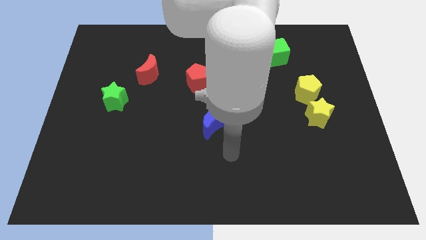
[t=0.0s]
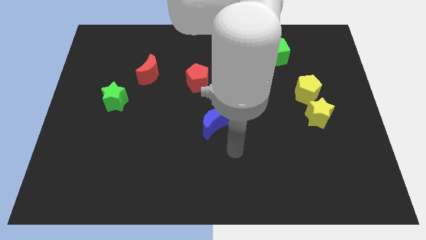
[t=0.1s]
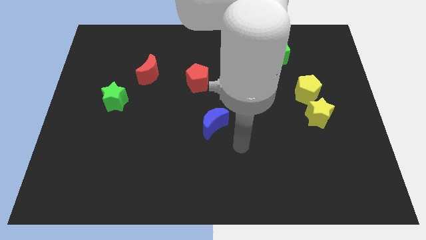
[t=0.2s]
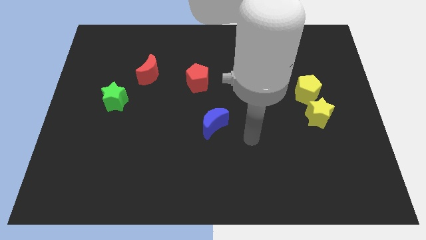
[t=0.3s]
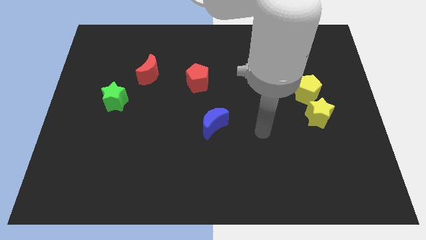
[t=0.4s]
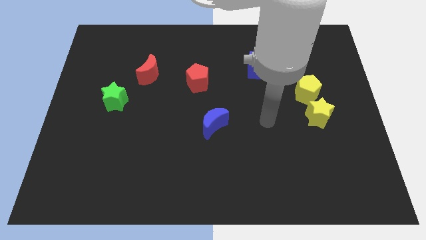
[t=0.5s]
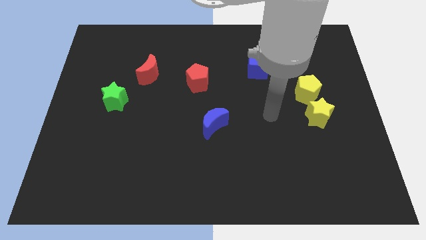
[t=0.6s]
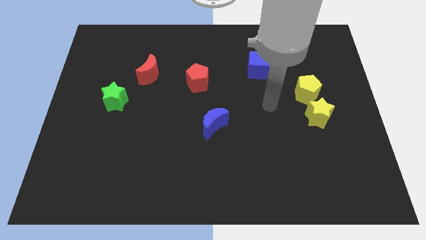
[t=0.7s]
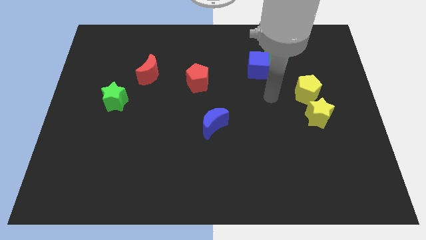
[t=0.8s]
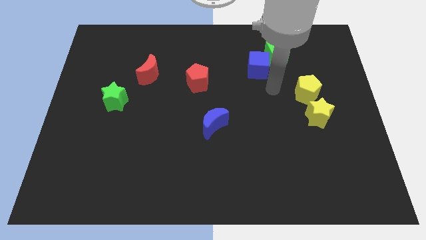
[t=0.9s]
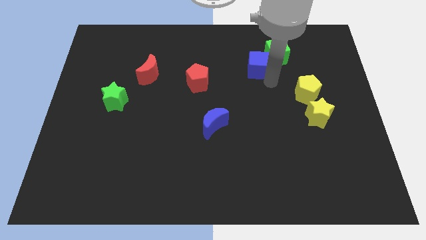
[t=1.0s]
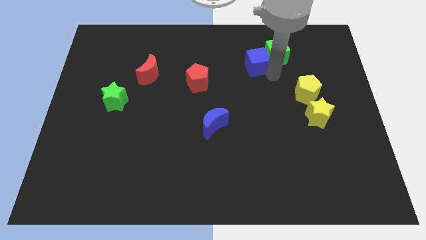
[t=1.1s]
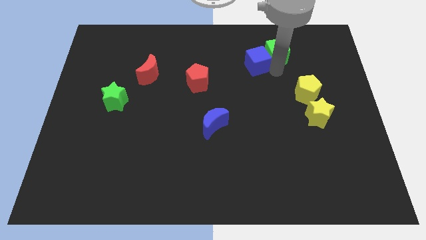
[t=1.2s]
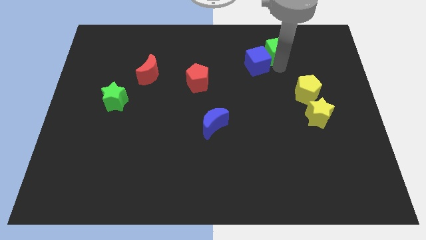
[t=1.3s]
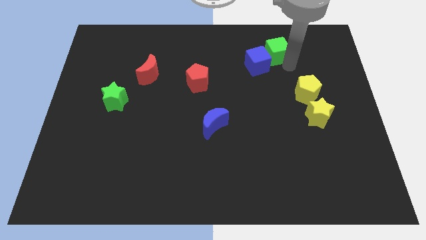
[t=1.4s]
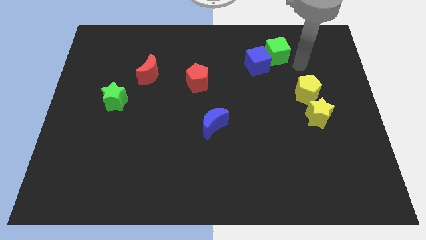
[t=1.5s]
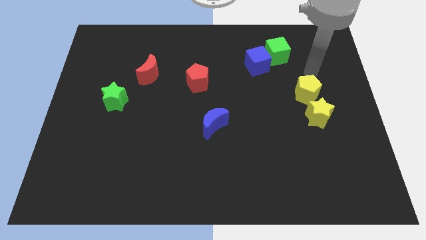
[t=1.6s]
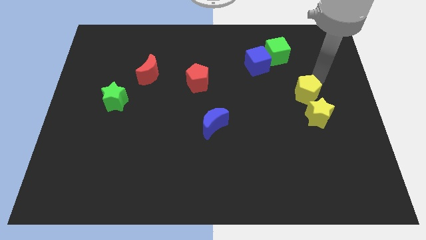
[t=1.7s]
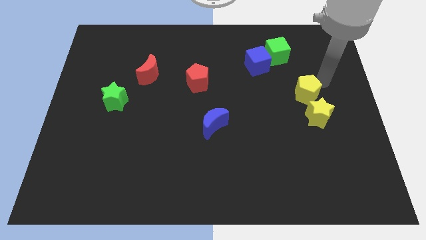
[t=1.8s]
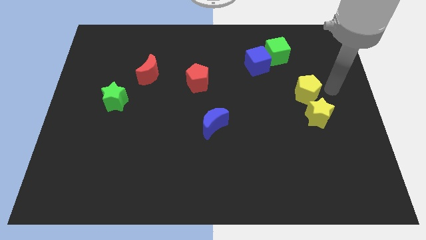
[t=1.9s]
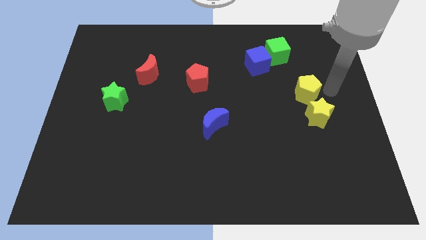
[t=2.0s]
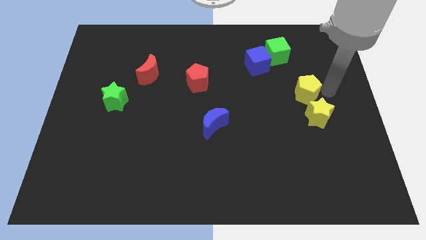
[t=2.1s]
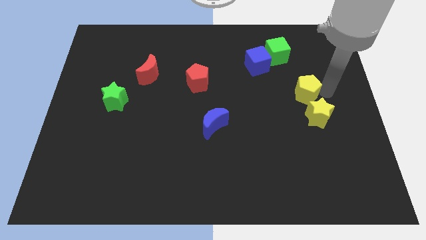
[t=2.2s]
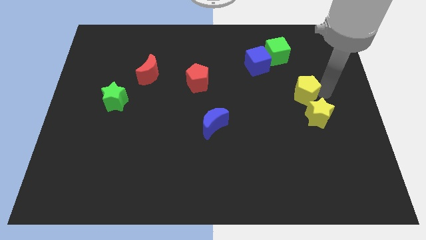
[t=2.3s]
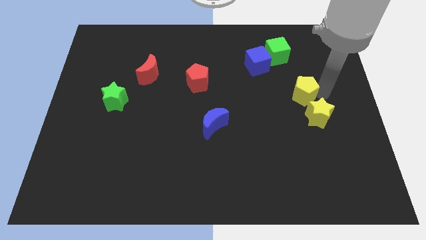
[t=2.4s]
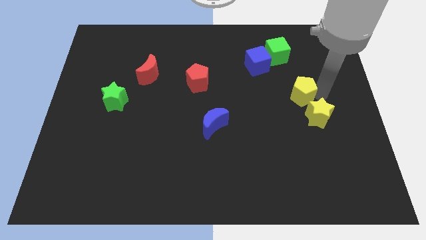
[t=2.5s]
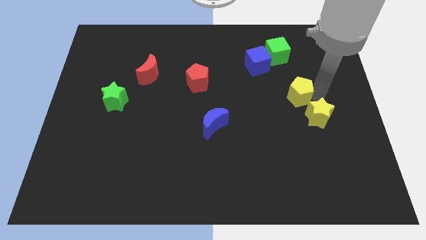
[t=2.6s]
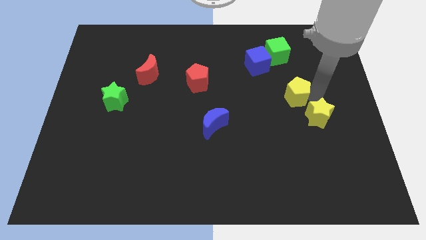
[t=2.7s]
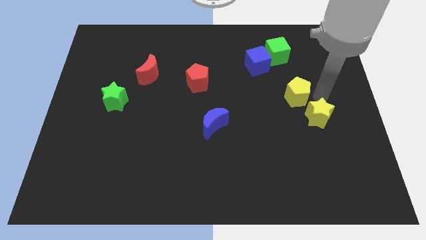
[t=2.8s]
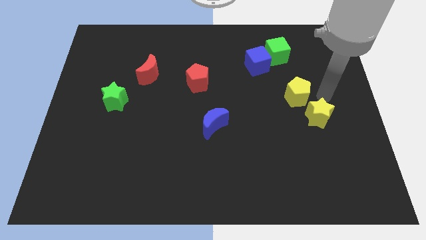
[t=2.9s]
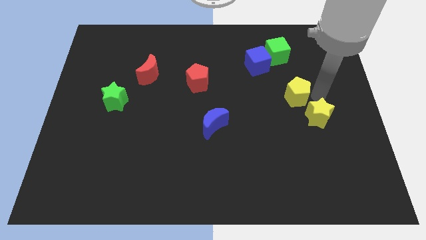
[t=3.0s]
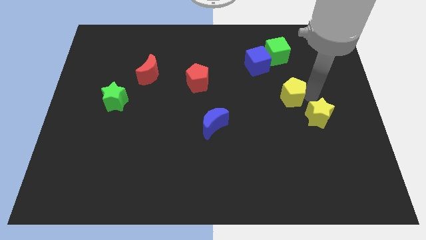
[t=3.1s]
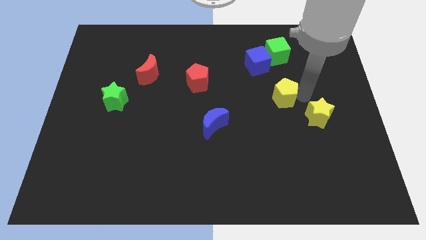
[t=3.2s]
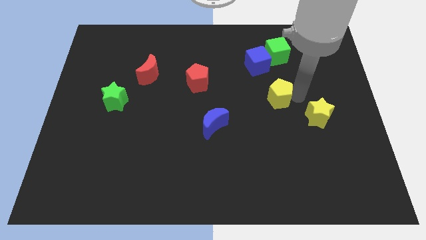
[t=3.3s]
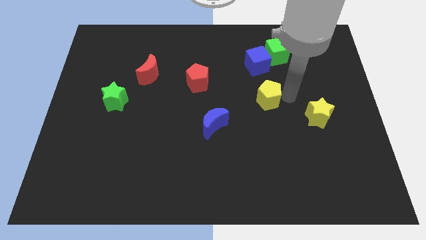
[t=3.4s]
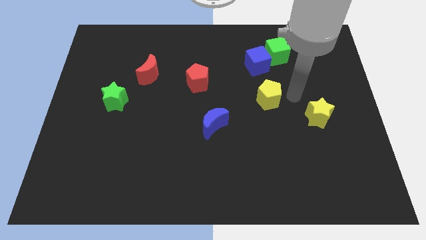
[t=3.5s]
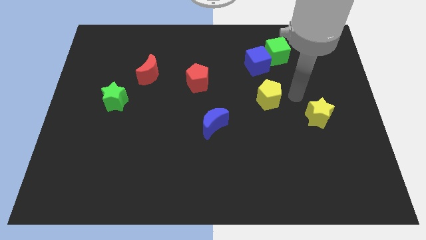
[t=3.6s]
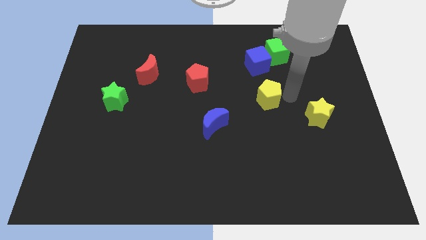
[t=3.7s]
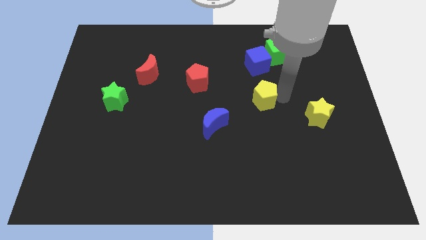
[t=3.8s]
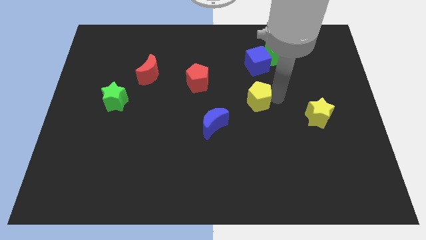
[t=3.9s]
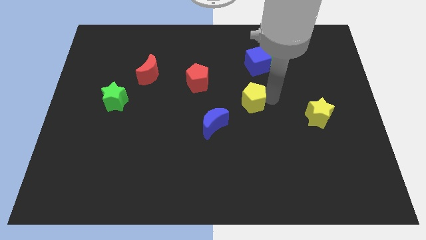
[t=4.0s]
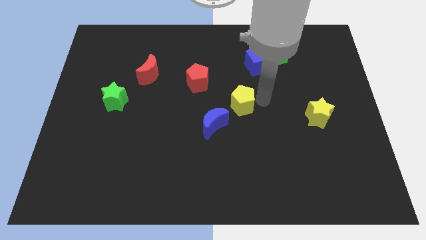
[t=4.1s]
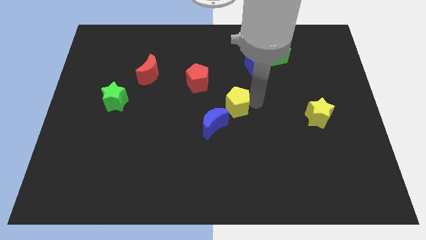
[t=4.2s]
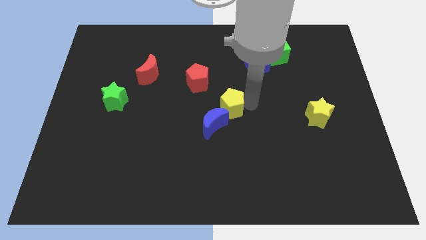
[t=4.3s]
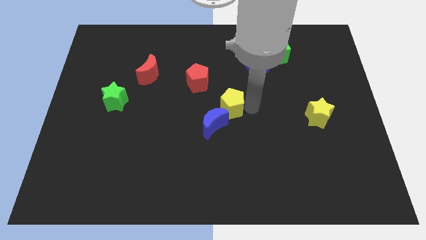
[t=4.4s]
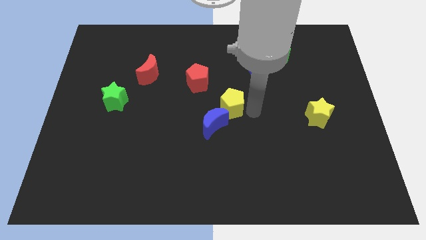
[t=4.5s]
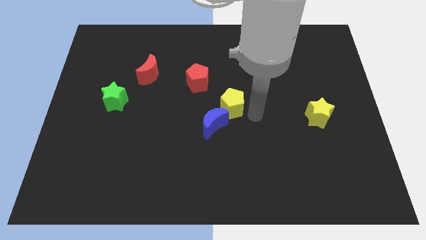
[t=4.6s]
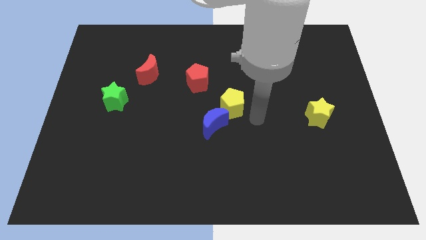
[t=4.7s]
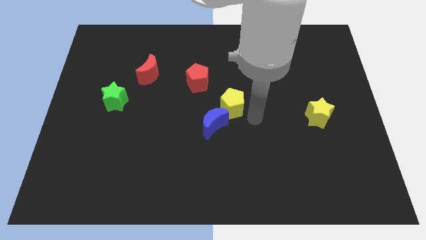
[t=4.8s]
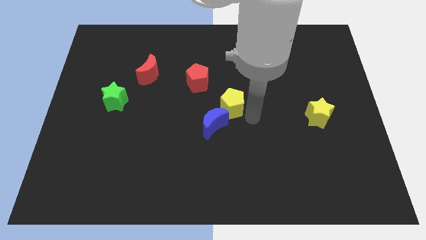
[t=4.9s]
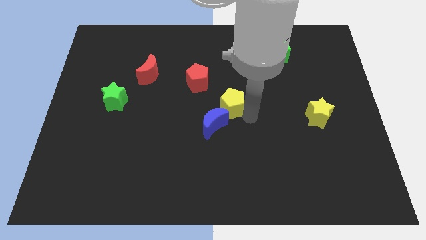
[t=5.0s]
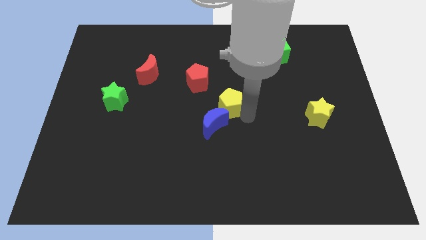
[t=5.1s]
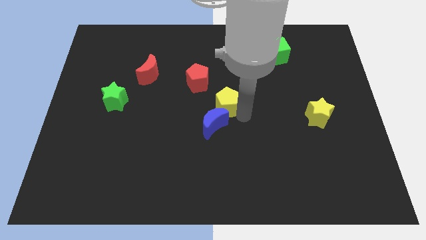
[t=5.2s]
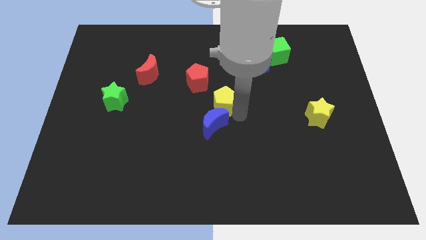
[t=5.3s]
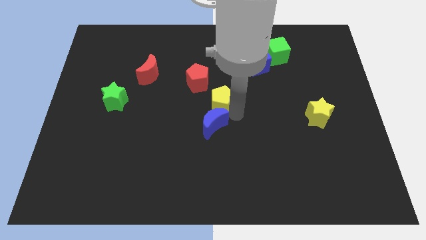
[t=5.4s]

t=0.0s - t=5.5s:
push the yellow pentagon to the left

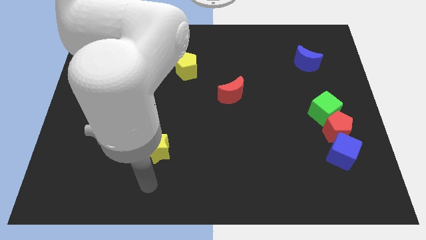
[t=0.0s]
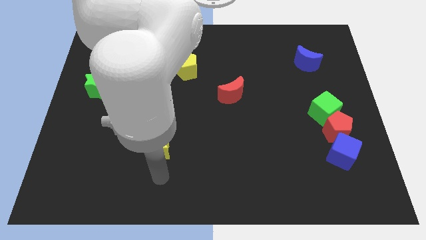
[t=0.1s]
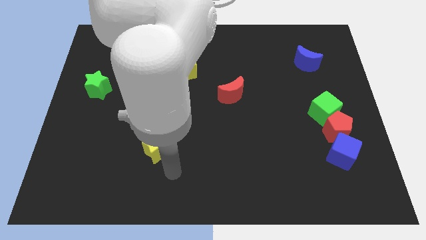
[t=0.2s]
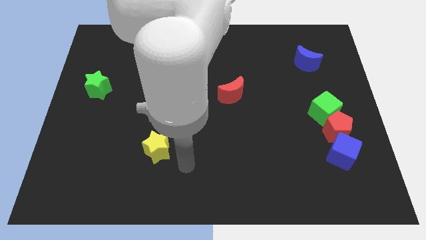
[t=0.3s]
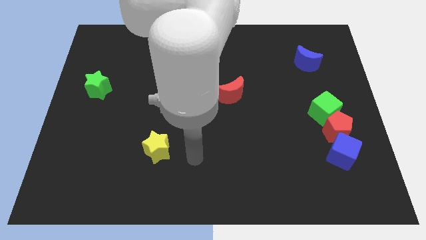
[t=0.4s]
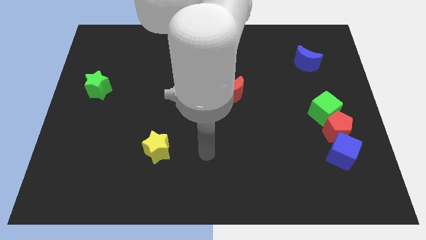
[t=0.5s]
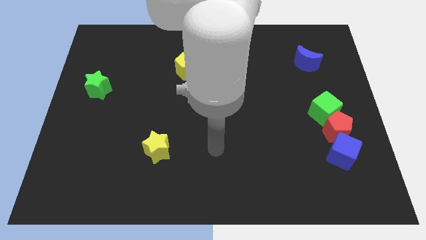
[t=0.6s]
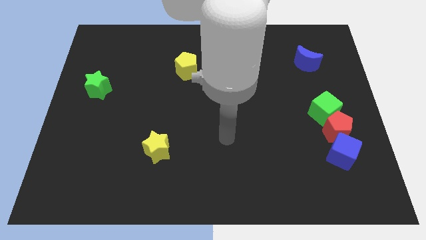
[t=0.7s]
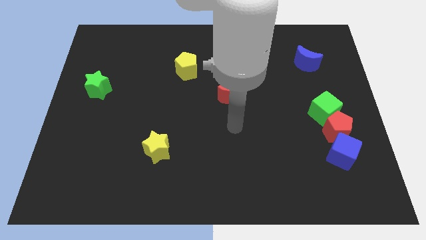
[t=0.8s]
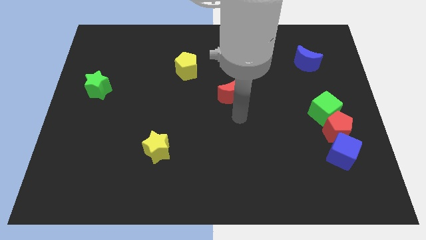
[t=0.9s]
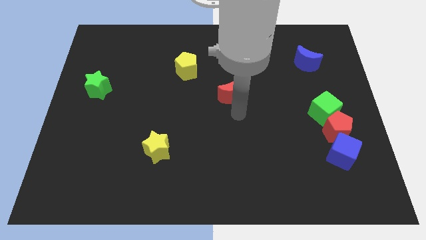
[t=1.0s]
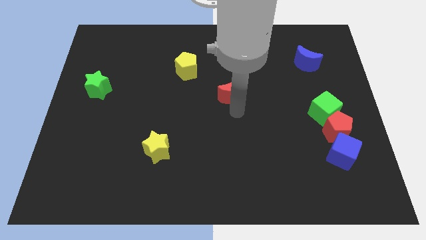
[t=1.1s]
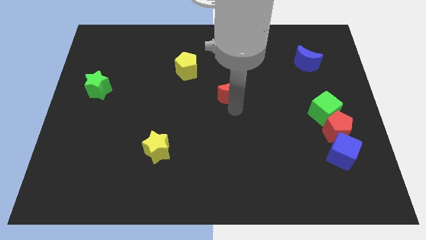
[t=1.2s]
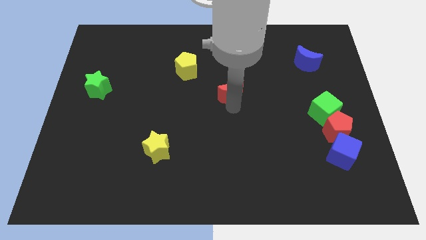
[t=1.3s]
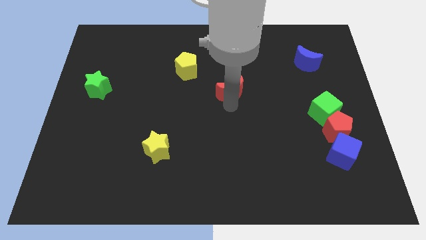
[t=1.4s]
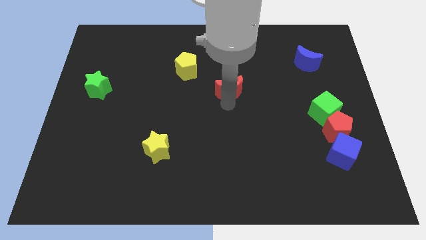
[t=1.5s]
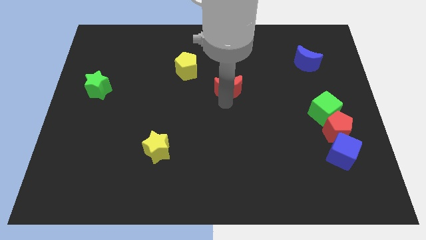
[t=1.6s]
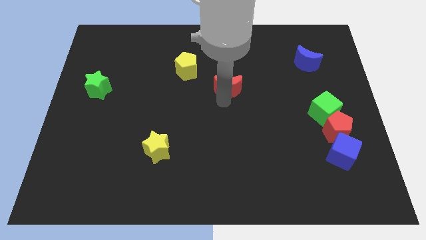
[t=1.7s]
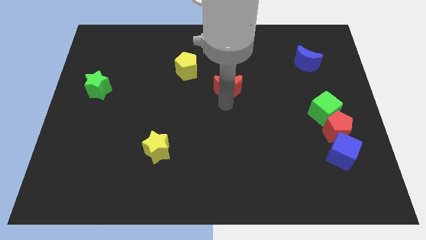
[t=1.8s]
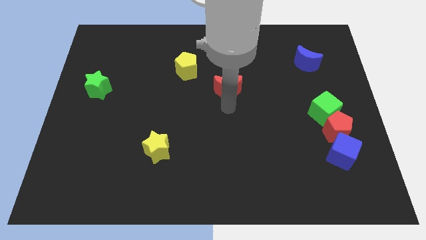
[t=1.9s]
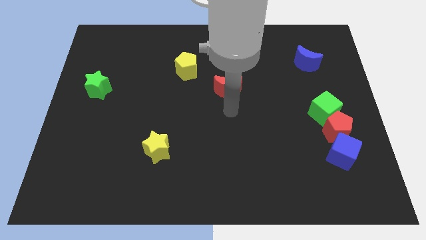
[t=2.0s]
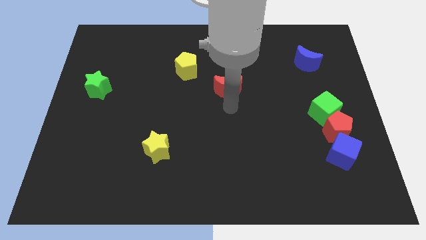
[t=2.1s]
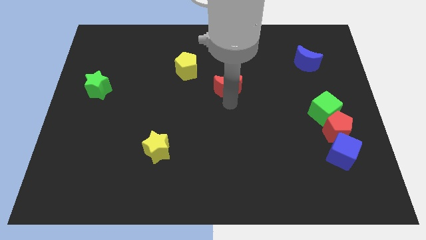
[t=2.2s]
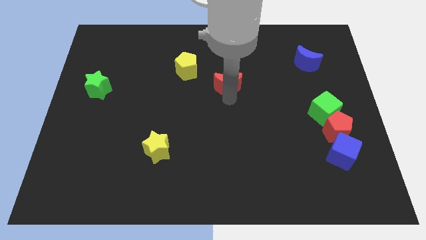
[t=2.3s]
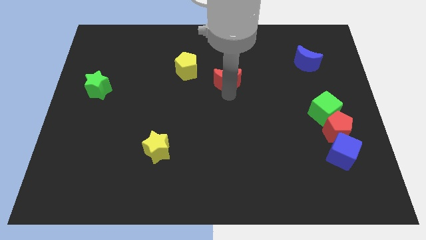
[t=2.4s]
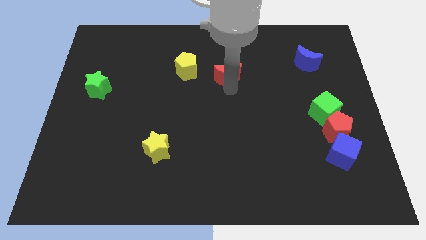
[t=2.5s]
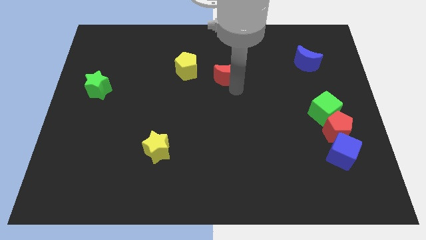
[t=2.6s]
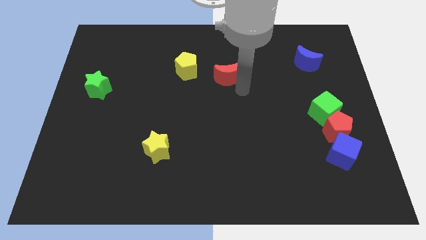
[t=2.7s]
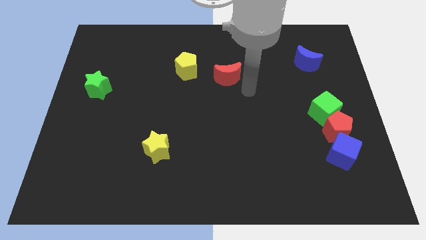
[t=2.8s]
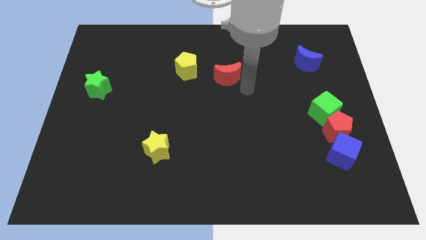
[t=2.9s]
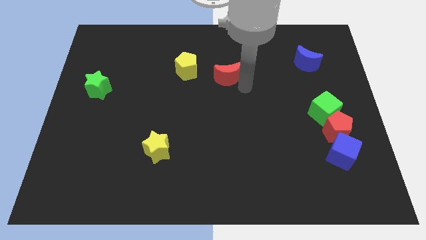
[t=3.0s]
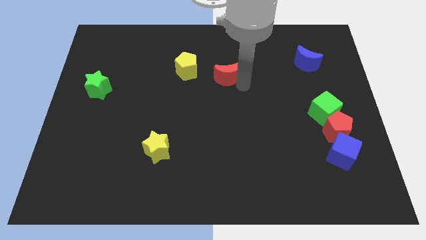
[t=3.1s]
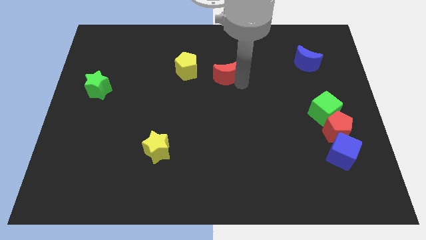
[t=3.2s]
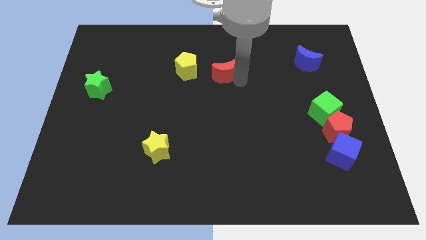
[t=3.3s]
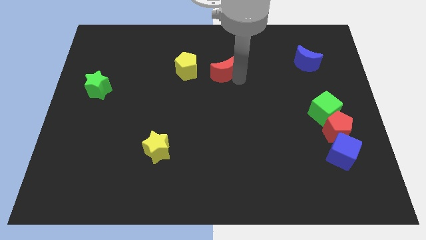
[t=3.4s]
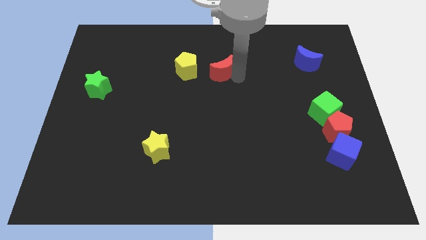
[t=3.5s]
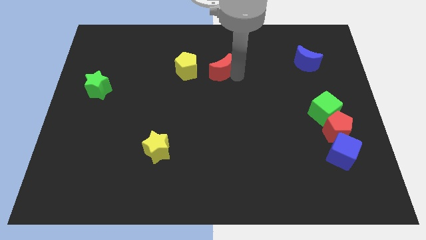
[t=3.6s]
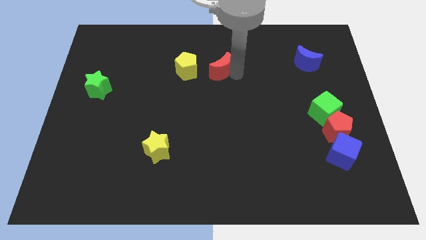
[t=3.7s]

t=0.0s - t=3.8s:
move the red moon a little up and to the left
